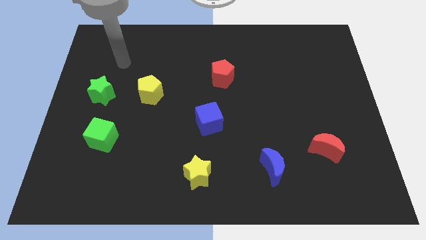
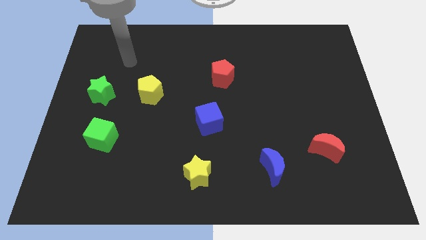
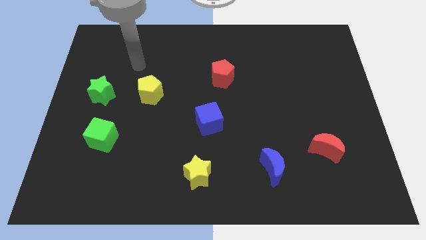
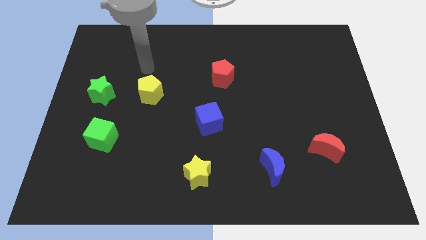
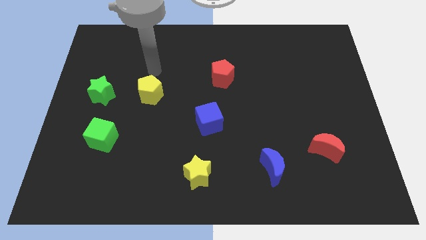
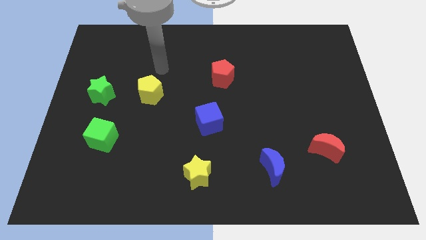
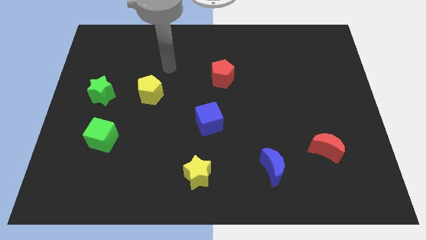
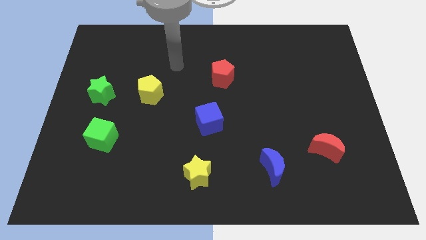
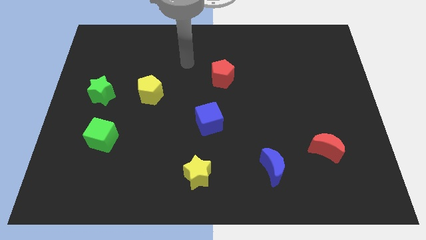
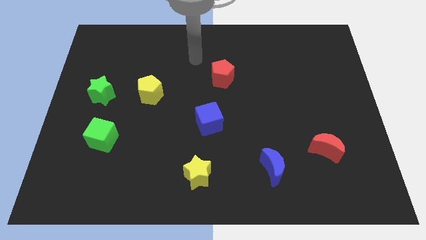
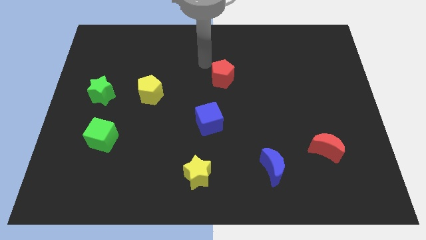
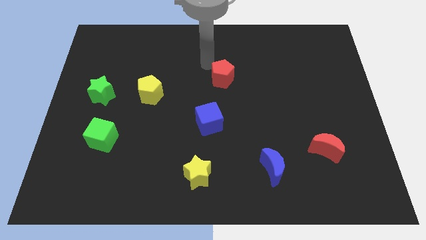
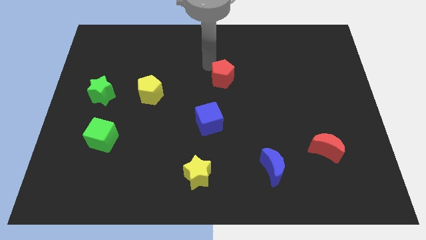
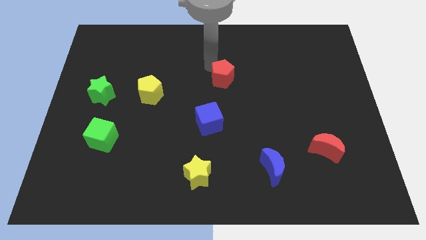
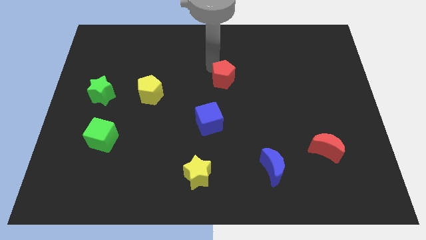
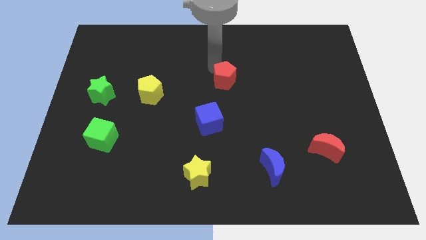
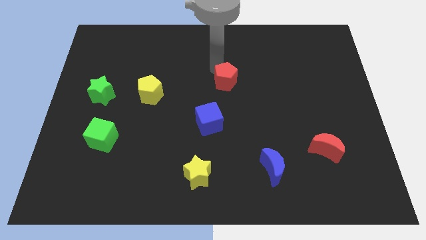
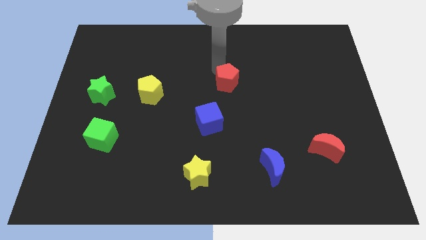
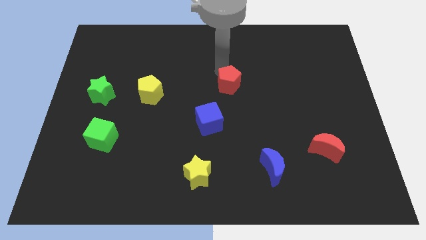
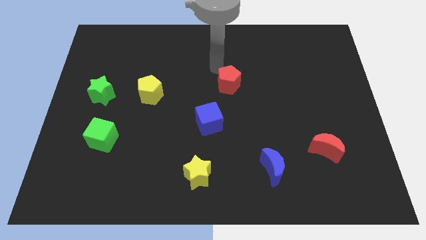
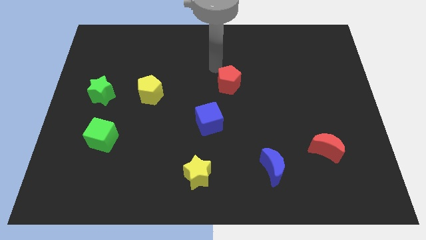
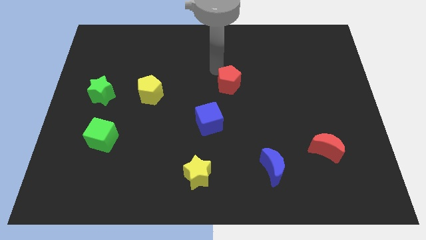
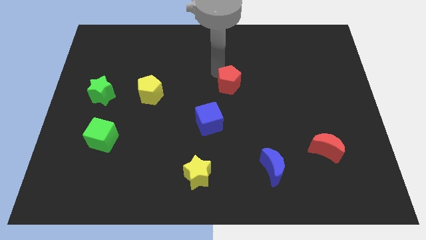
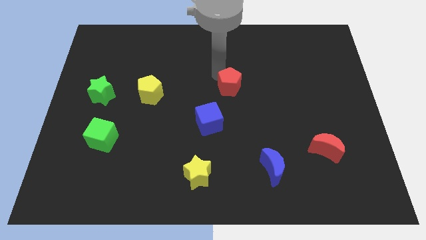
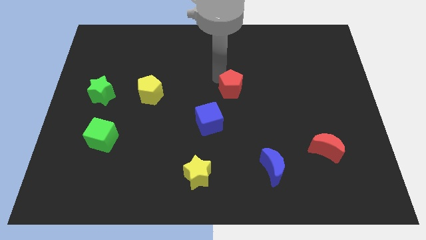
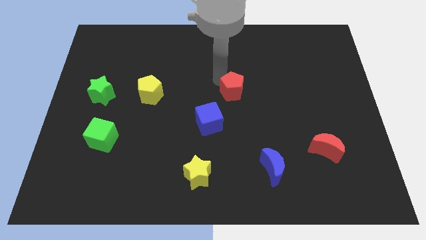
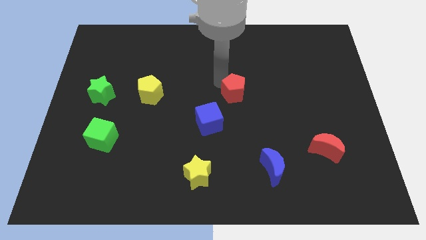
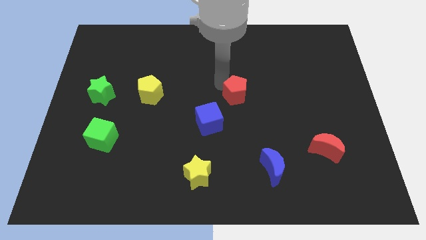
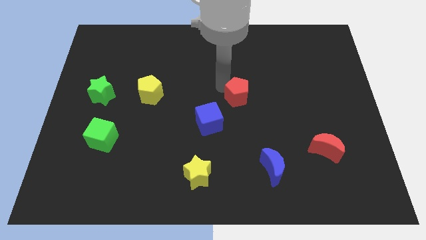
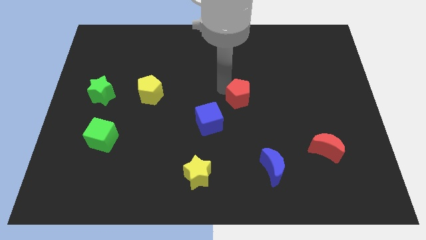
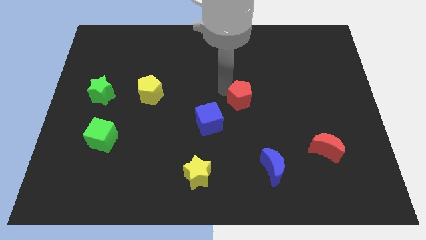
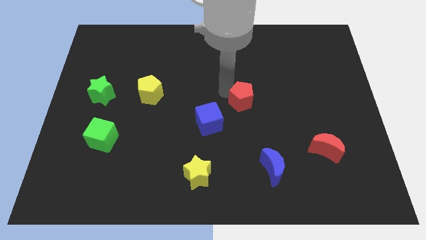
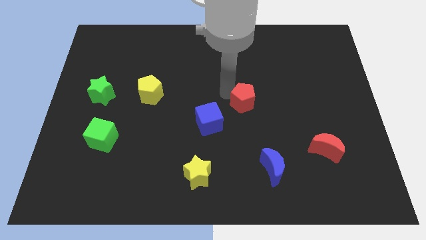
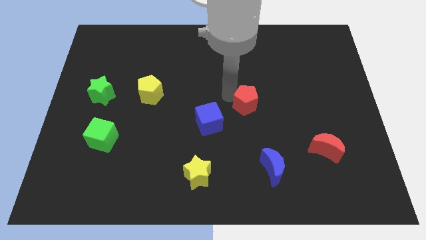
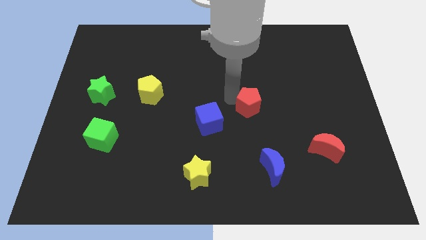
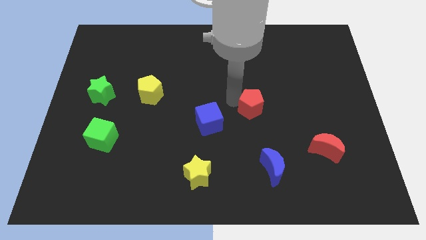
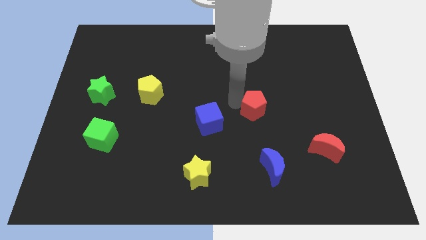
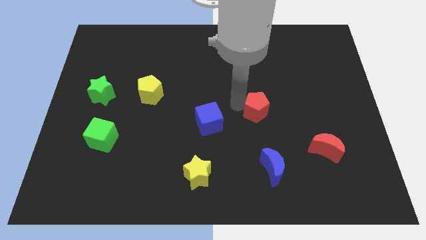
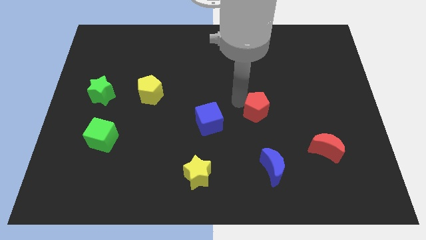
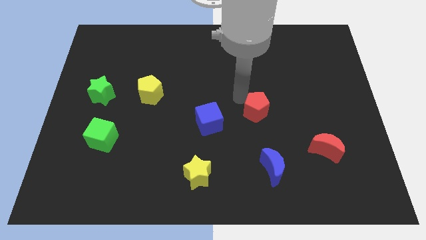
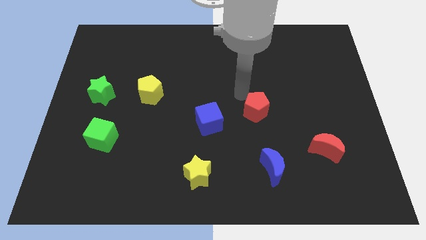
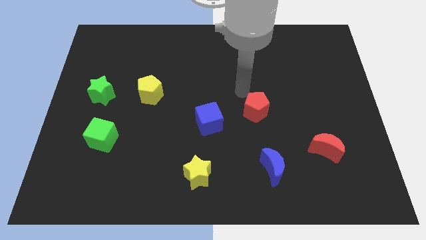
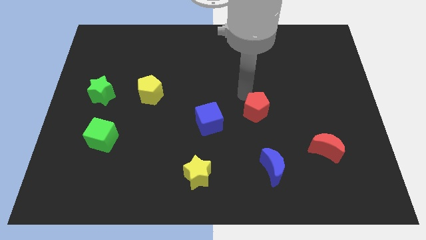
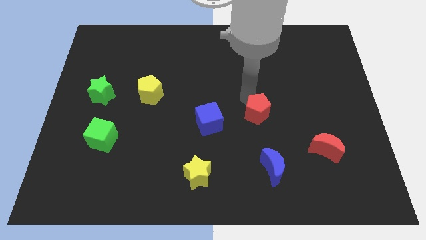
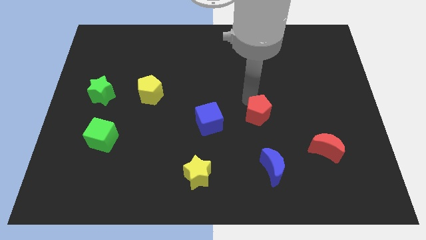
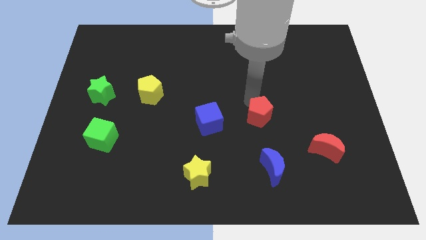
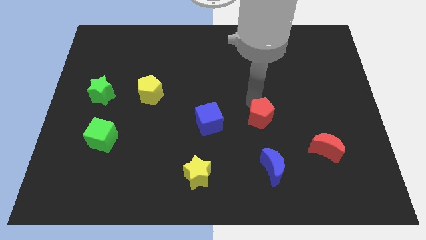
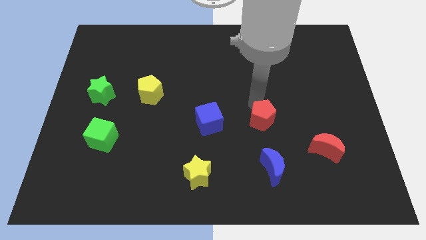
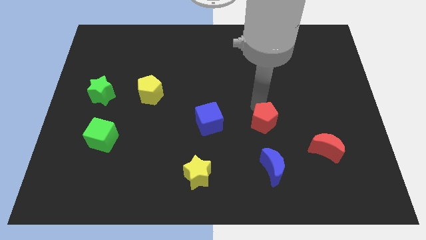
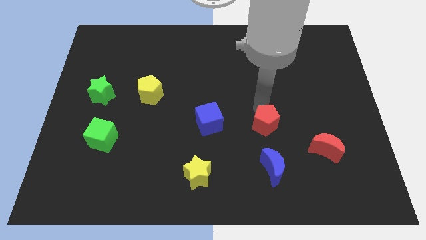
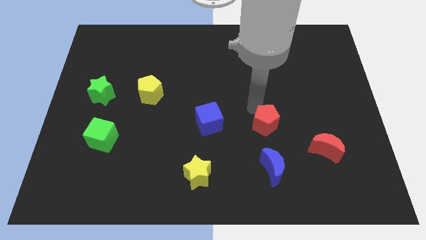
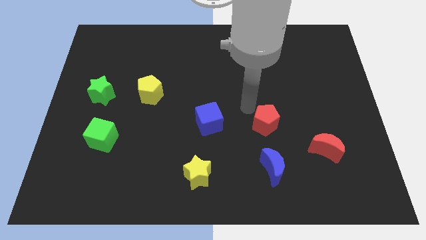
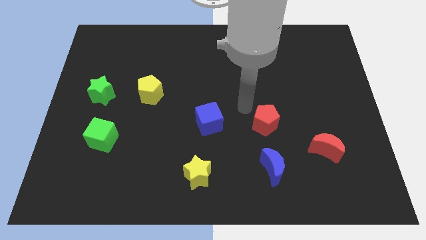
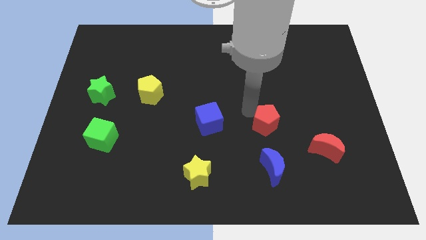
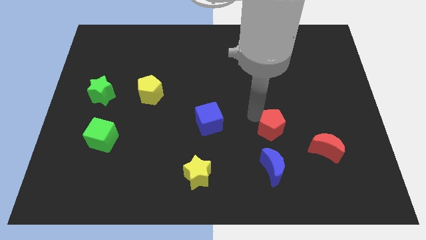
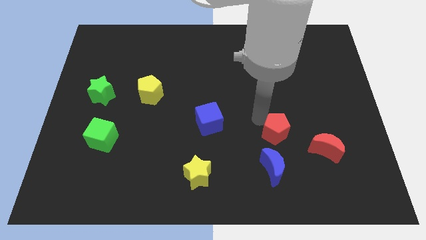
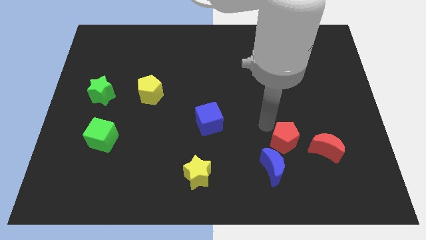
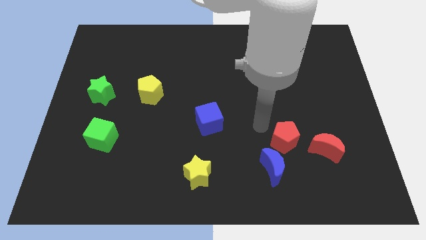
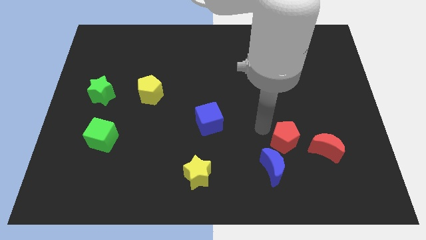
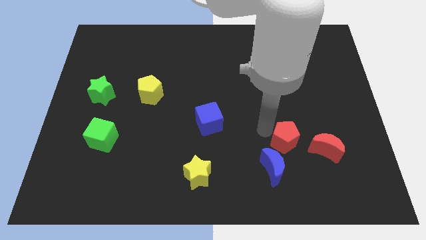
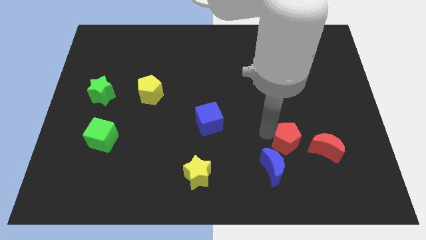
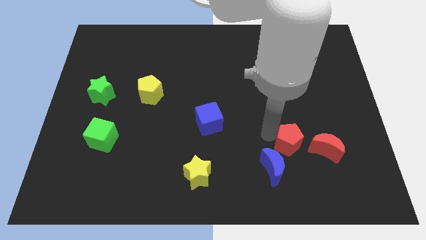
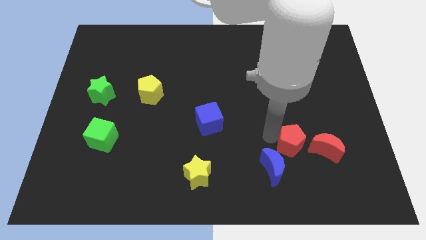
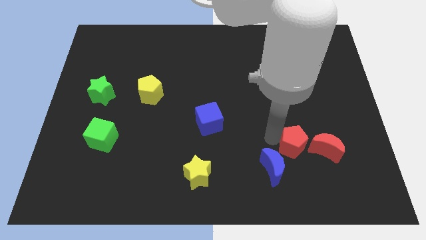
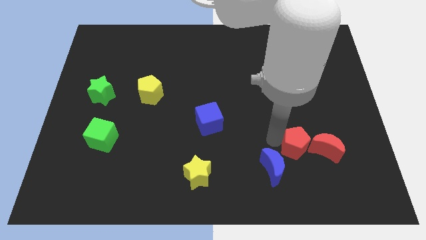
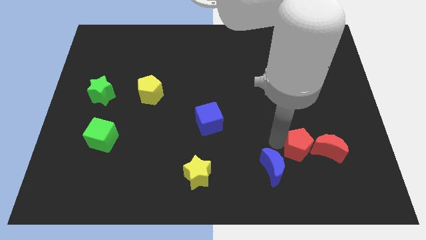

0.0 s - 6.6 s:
move the red pentagon just right of the blue moon
